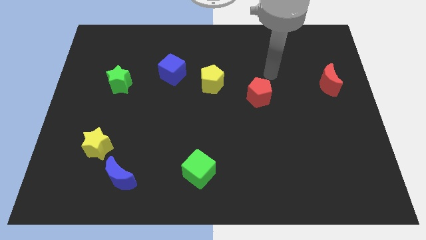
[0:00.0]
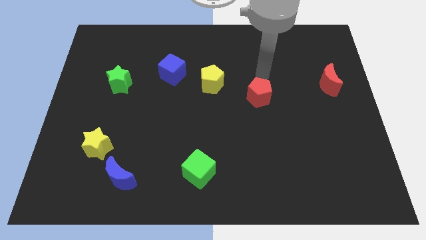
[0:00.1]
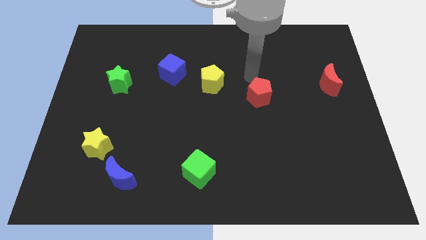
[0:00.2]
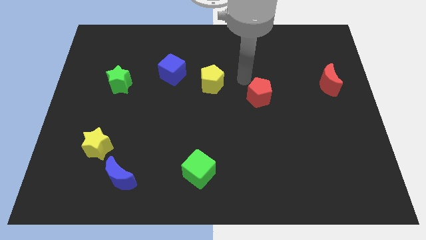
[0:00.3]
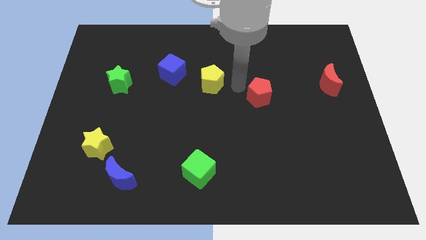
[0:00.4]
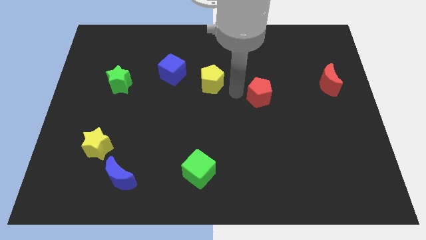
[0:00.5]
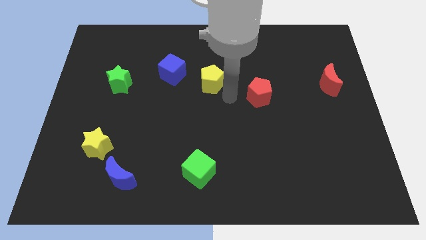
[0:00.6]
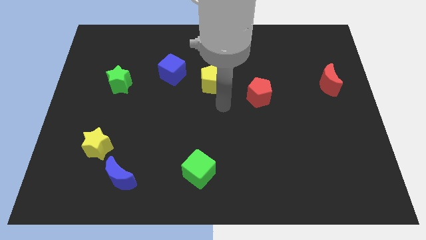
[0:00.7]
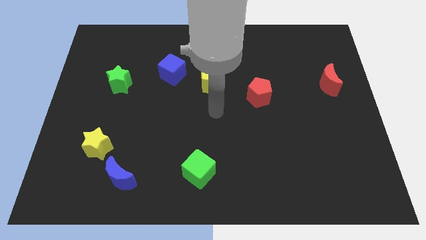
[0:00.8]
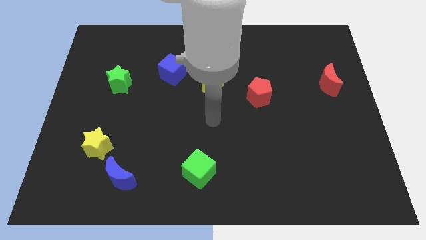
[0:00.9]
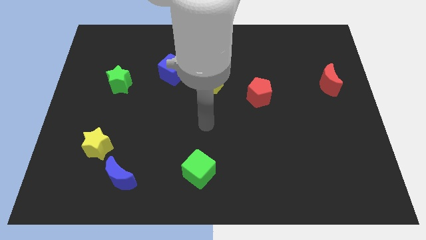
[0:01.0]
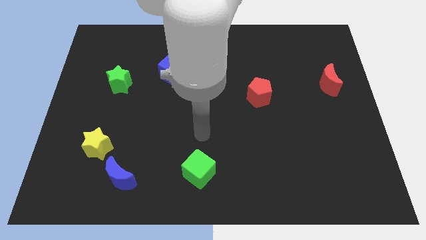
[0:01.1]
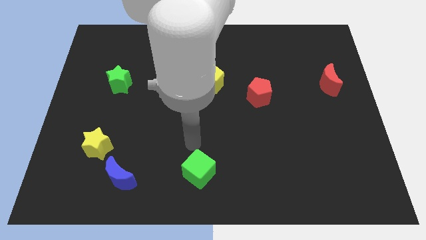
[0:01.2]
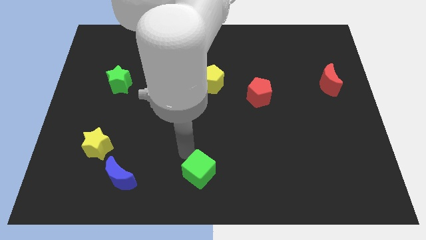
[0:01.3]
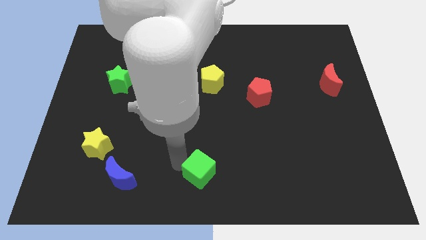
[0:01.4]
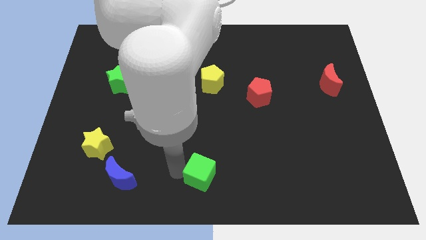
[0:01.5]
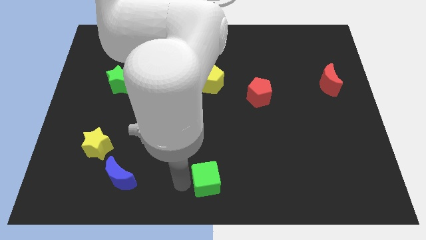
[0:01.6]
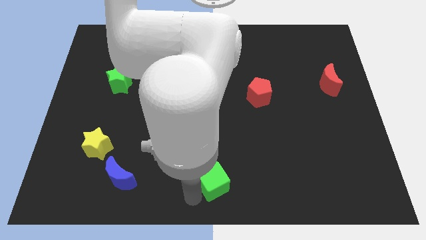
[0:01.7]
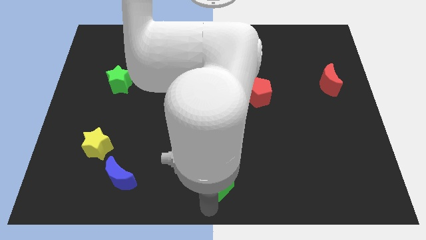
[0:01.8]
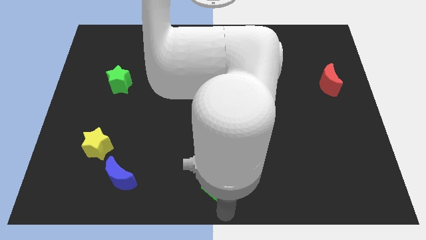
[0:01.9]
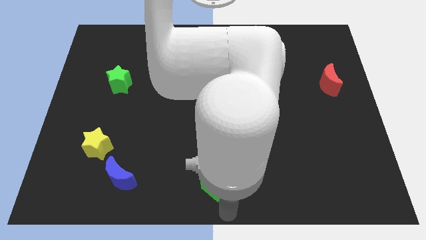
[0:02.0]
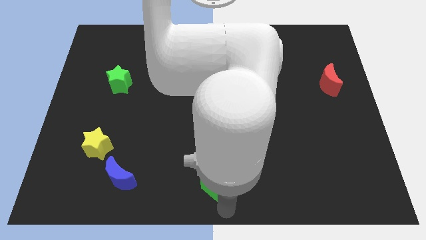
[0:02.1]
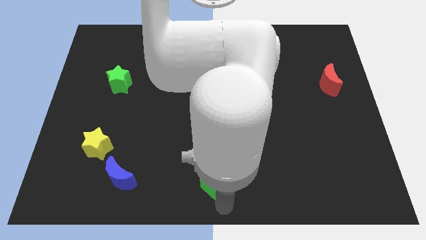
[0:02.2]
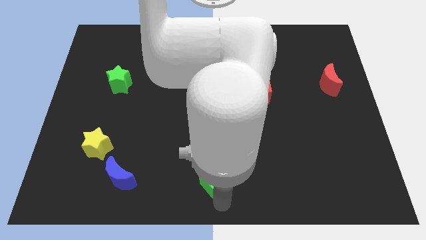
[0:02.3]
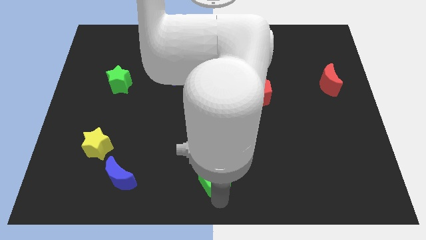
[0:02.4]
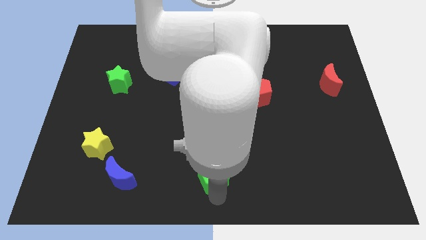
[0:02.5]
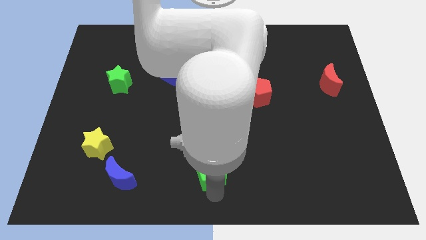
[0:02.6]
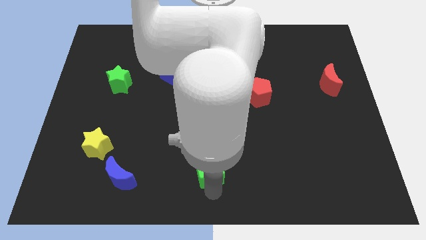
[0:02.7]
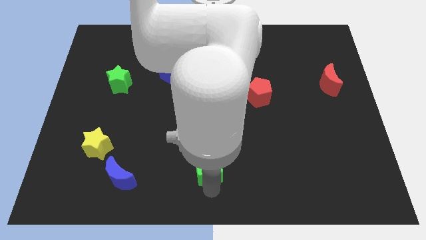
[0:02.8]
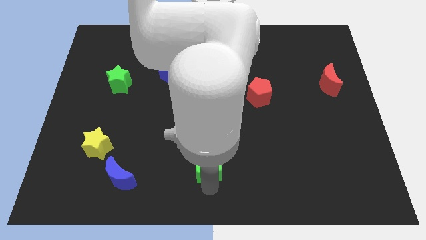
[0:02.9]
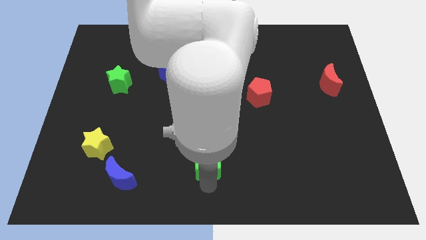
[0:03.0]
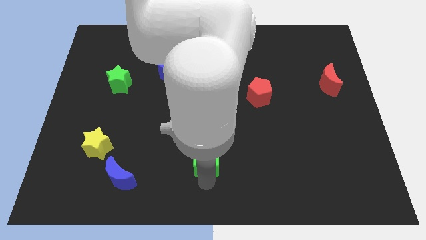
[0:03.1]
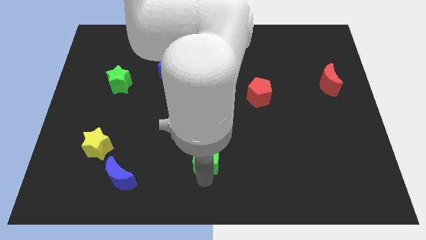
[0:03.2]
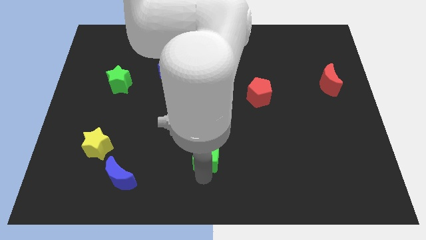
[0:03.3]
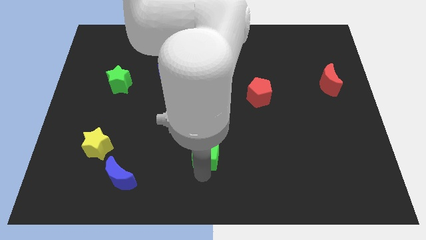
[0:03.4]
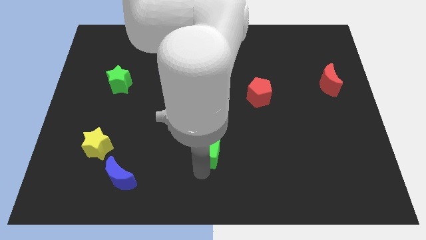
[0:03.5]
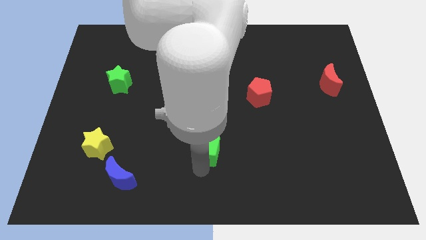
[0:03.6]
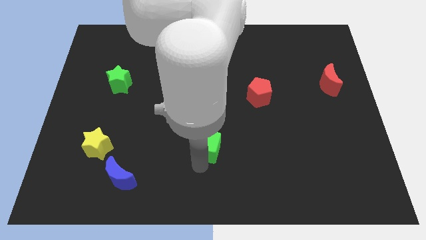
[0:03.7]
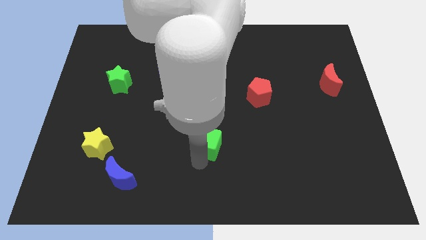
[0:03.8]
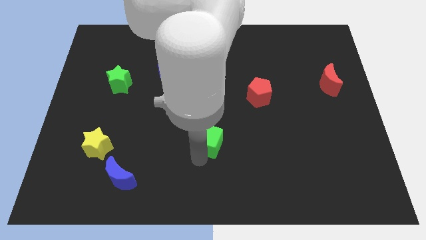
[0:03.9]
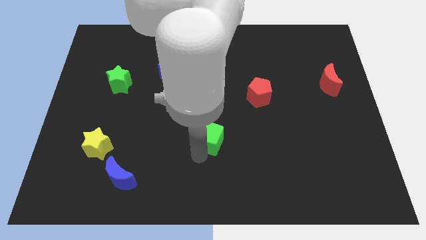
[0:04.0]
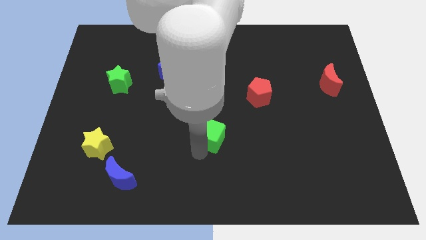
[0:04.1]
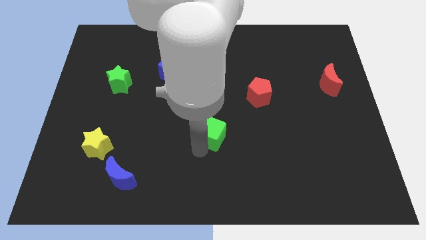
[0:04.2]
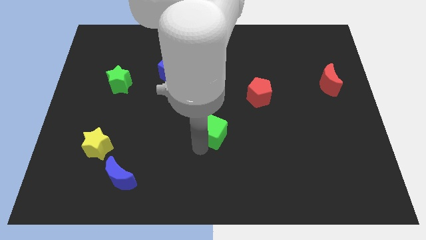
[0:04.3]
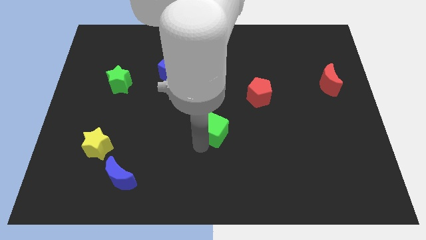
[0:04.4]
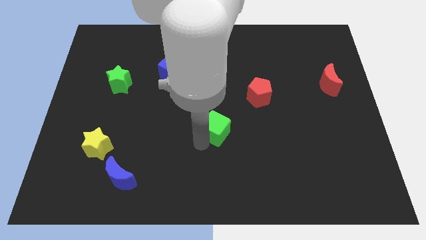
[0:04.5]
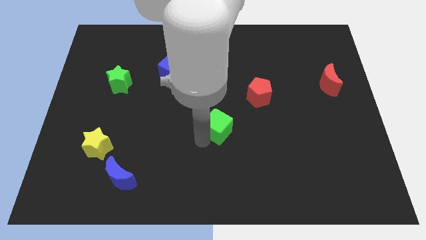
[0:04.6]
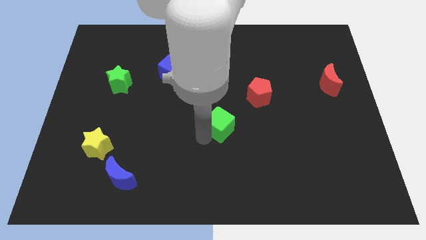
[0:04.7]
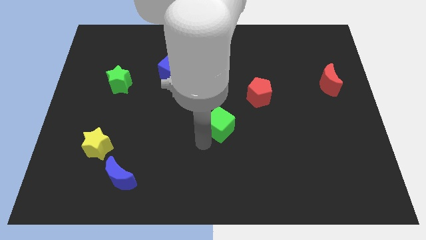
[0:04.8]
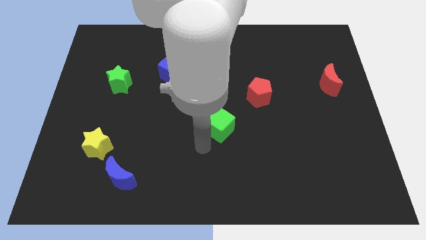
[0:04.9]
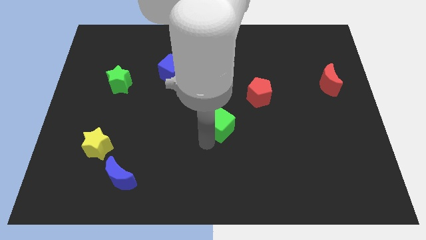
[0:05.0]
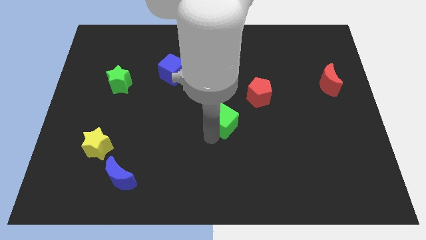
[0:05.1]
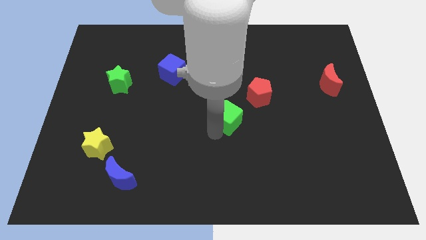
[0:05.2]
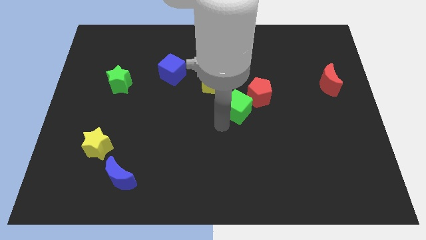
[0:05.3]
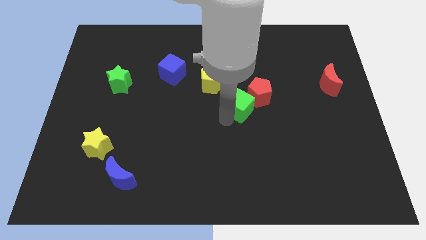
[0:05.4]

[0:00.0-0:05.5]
push the green cube next to the red pentagon

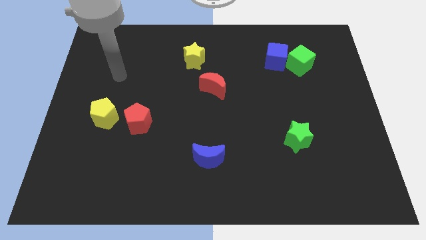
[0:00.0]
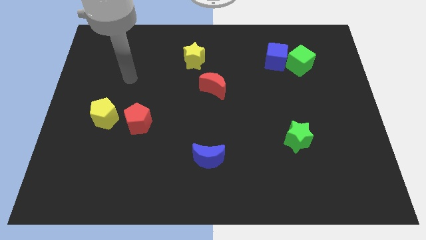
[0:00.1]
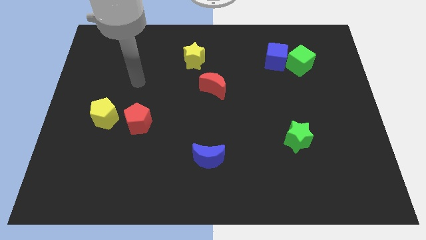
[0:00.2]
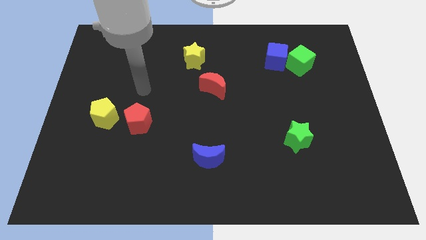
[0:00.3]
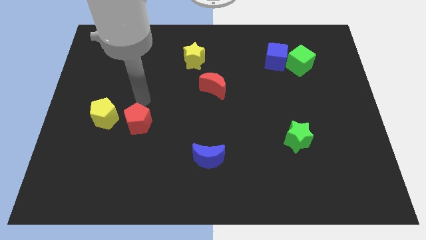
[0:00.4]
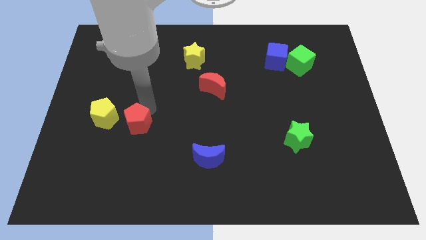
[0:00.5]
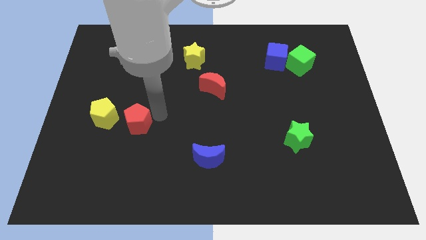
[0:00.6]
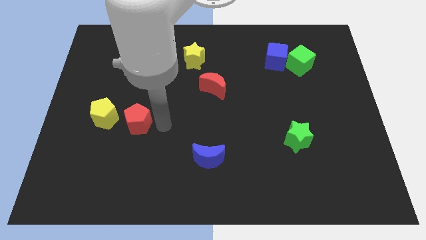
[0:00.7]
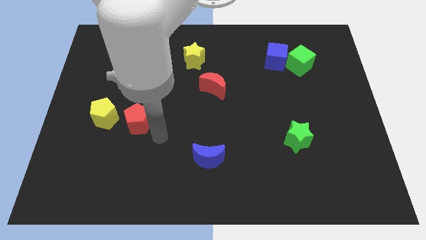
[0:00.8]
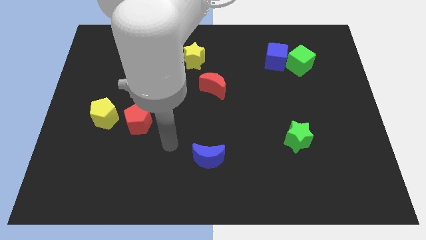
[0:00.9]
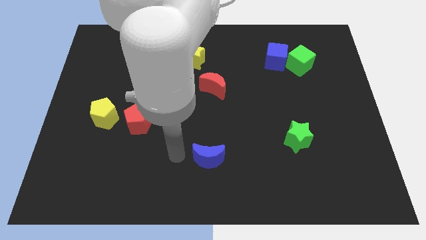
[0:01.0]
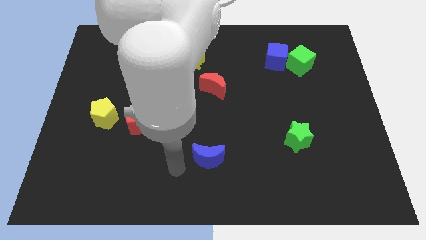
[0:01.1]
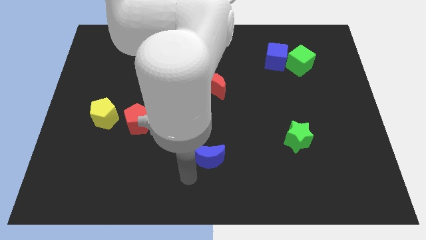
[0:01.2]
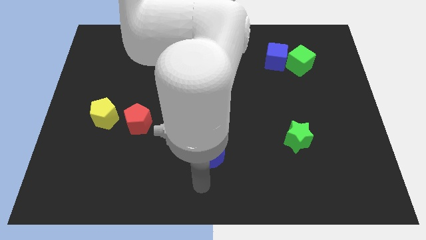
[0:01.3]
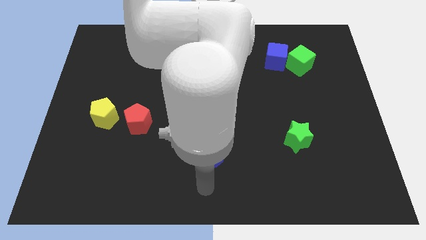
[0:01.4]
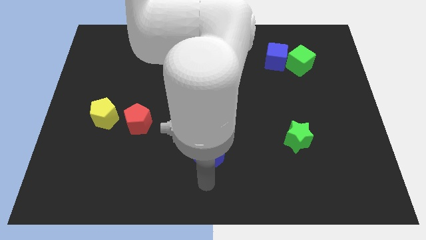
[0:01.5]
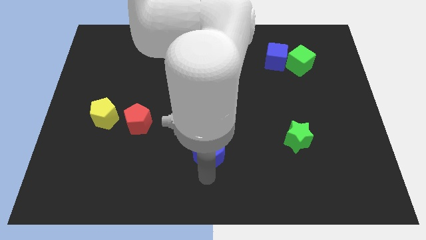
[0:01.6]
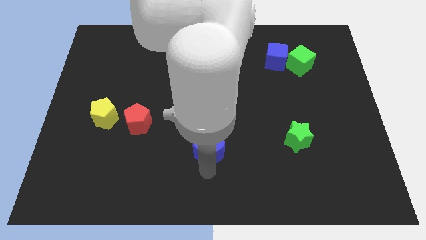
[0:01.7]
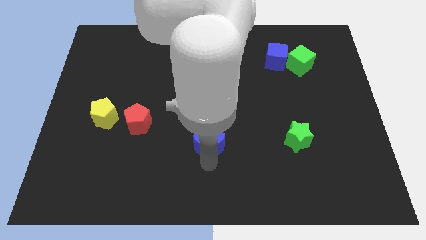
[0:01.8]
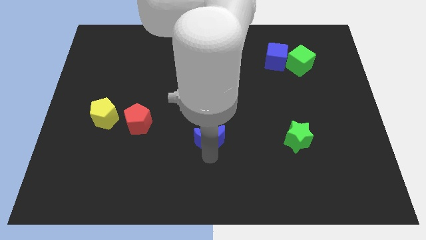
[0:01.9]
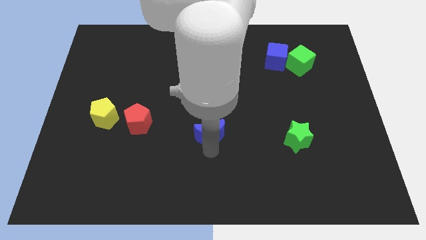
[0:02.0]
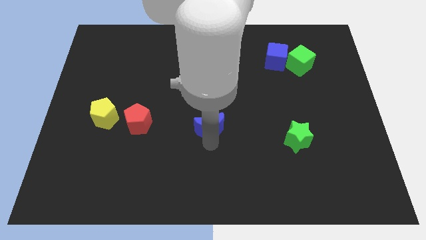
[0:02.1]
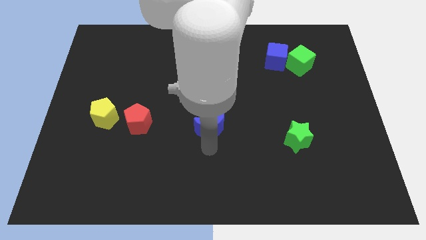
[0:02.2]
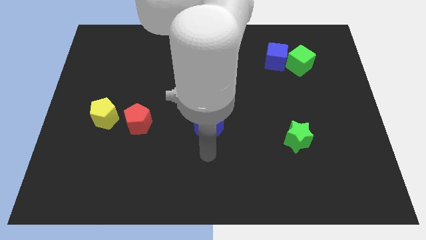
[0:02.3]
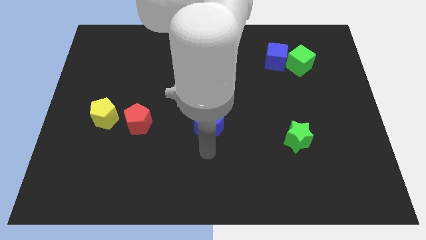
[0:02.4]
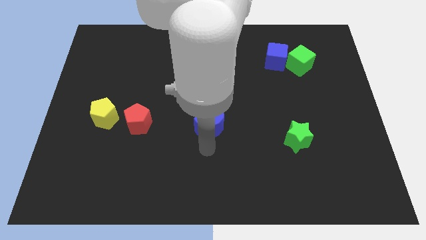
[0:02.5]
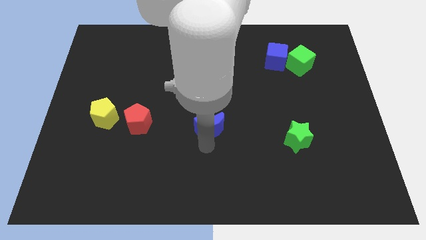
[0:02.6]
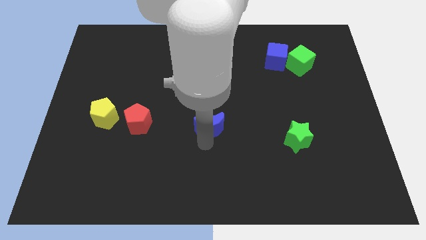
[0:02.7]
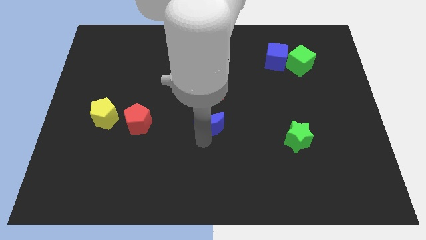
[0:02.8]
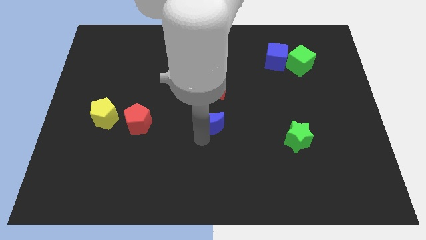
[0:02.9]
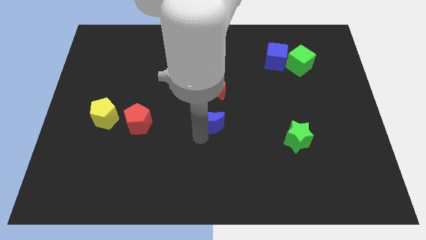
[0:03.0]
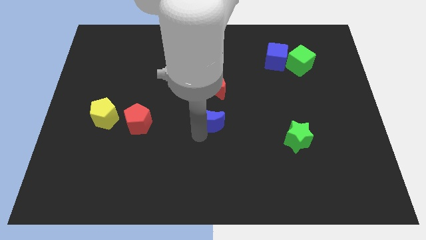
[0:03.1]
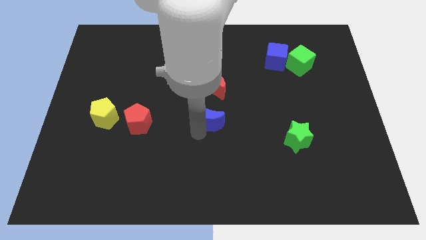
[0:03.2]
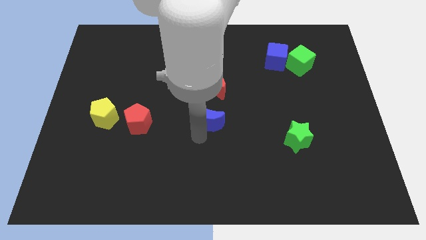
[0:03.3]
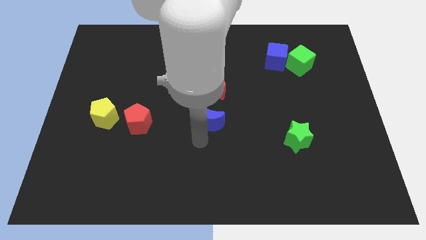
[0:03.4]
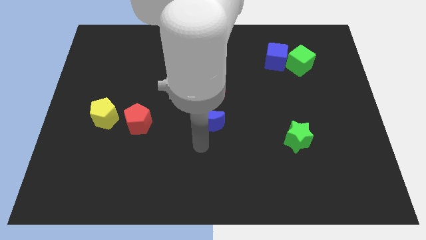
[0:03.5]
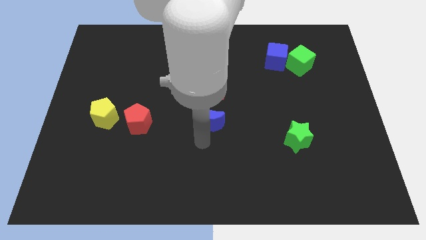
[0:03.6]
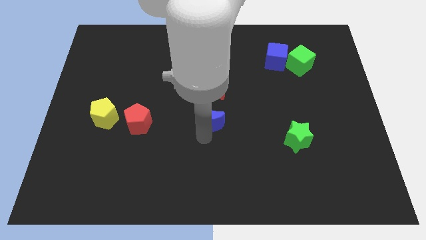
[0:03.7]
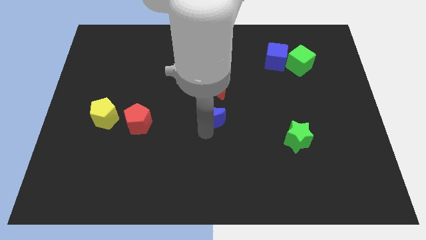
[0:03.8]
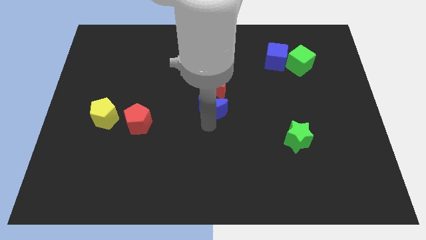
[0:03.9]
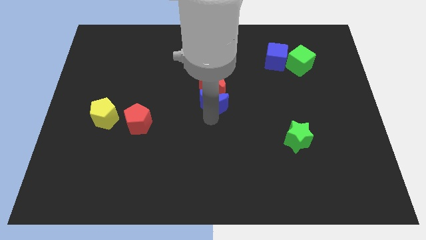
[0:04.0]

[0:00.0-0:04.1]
put the blue moon next to the red moon
